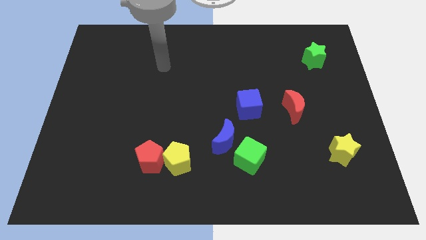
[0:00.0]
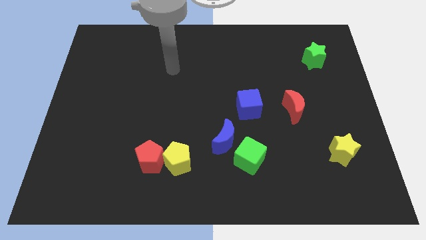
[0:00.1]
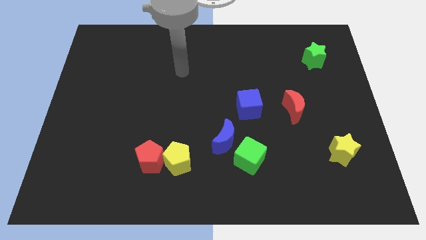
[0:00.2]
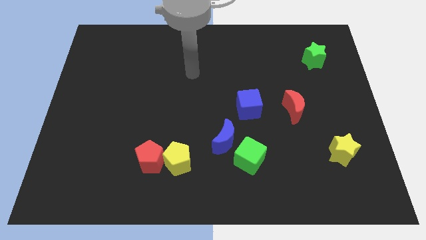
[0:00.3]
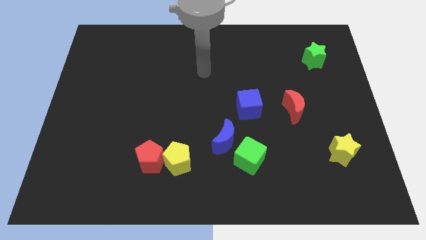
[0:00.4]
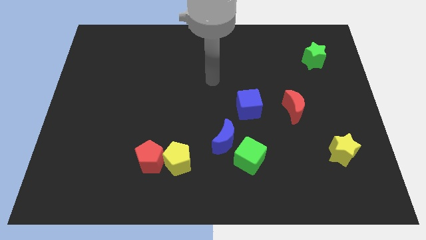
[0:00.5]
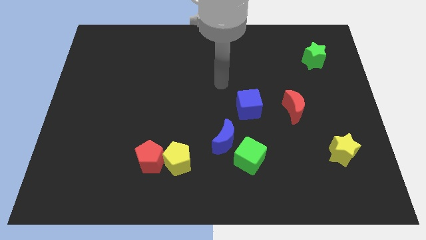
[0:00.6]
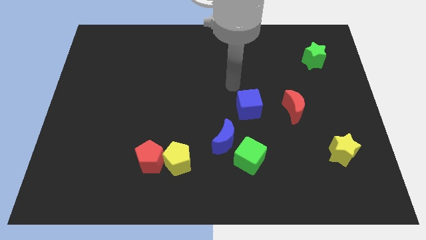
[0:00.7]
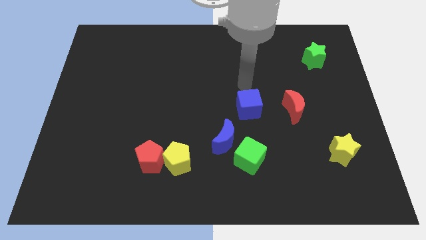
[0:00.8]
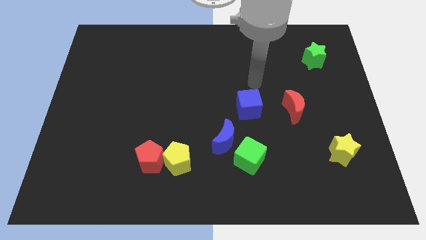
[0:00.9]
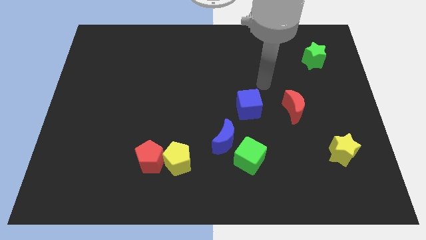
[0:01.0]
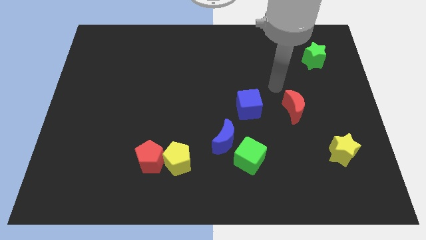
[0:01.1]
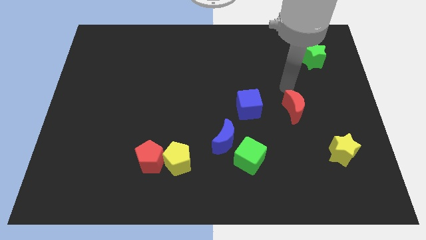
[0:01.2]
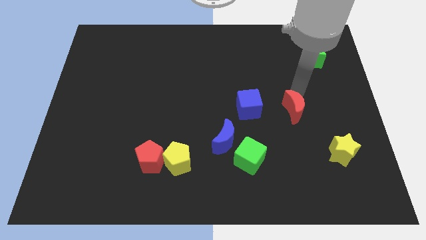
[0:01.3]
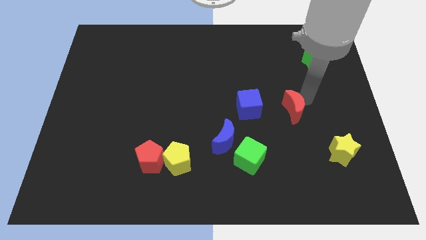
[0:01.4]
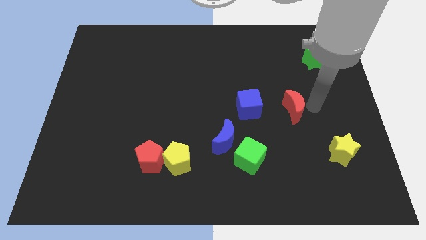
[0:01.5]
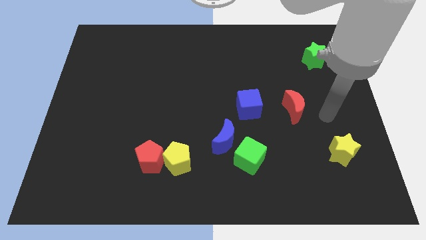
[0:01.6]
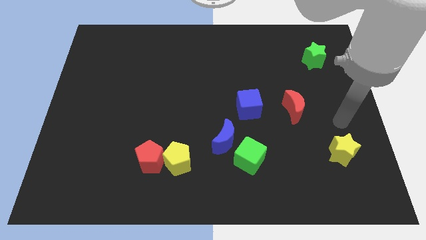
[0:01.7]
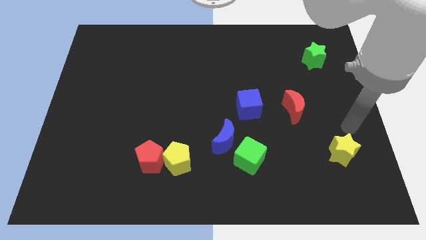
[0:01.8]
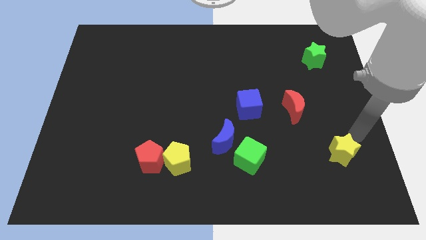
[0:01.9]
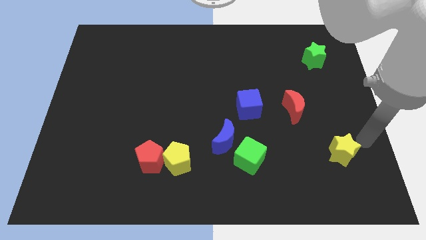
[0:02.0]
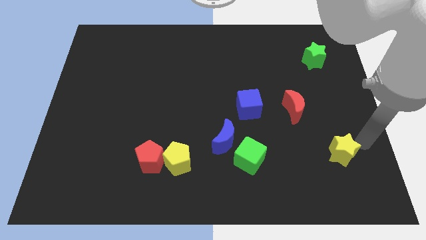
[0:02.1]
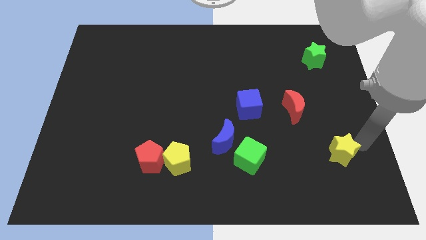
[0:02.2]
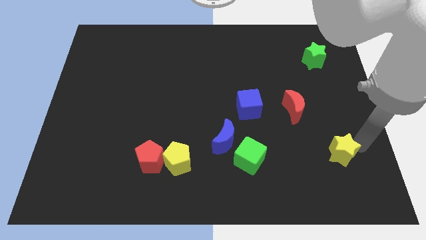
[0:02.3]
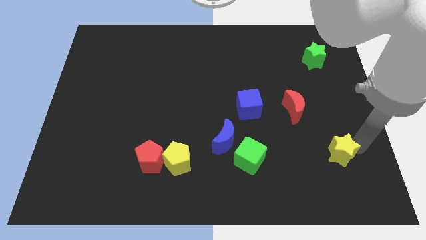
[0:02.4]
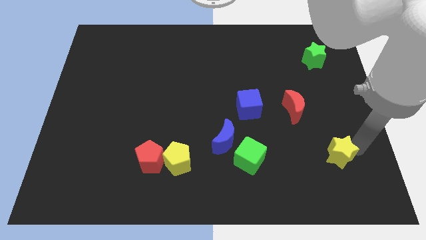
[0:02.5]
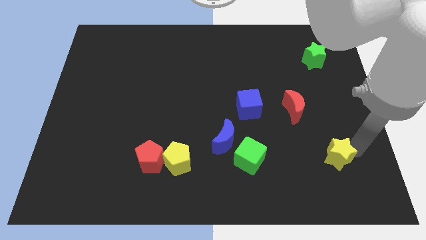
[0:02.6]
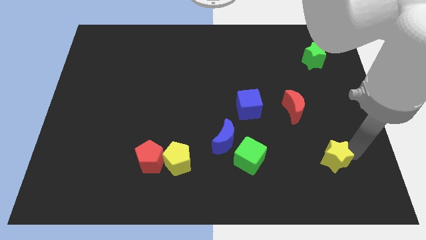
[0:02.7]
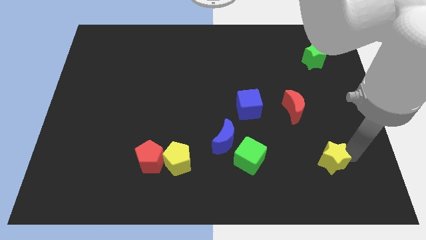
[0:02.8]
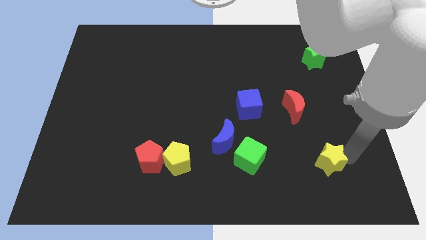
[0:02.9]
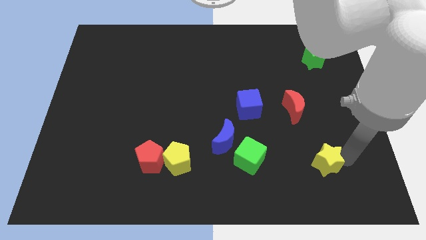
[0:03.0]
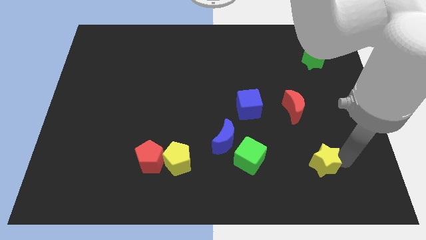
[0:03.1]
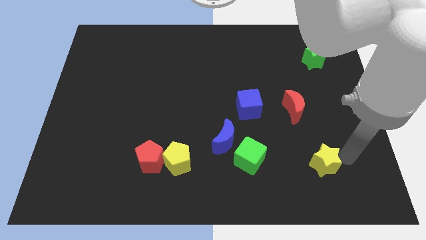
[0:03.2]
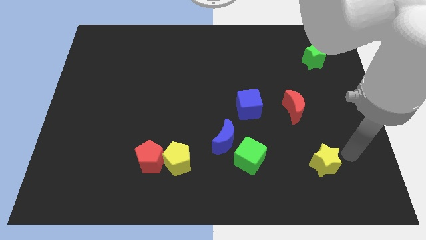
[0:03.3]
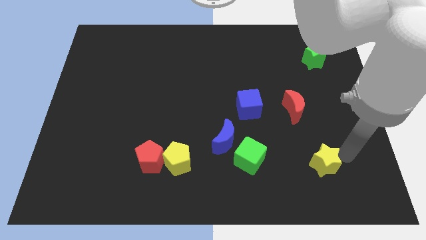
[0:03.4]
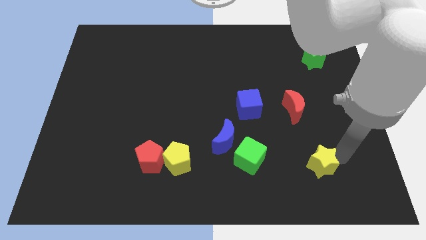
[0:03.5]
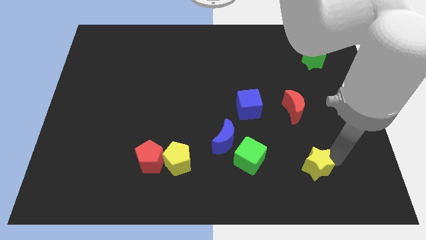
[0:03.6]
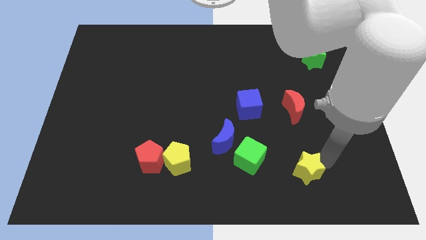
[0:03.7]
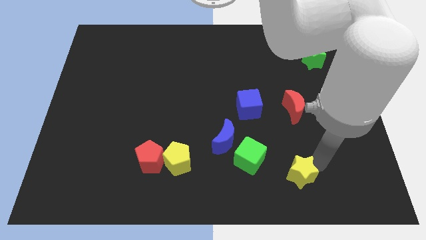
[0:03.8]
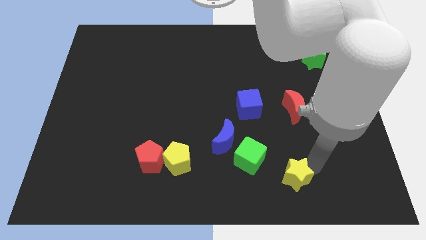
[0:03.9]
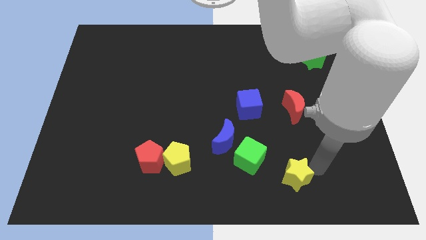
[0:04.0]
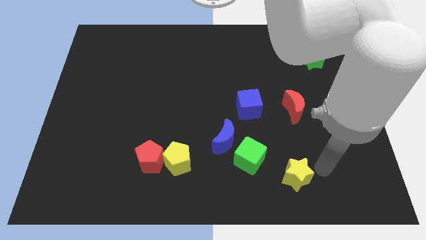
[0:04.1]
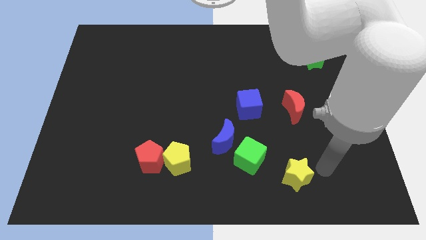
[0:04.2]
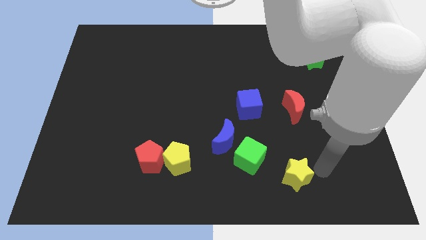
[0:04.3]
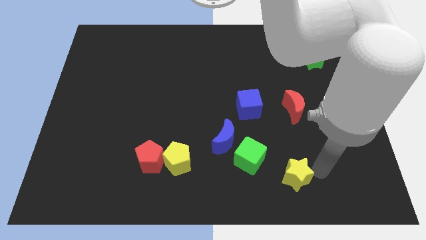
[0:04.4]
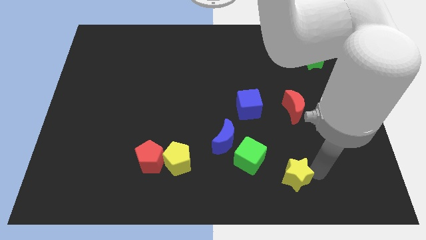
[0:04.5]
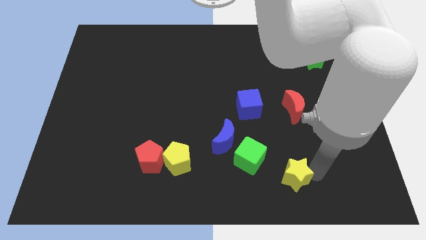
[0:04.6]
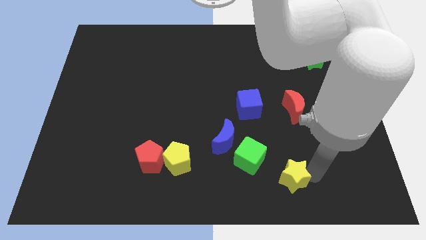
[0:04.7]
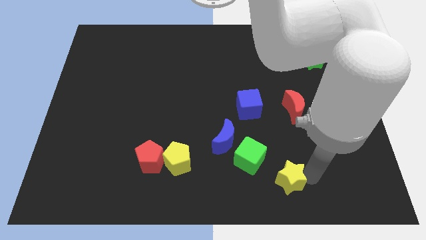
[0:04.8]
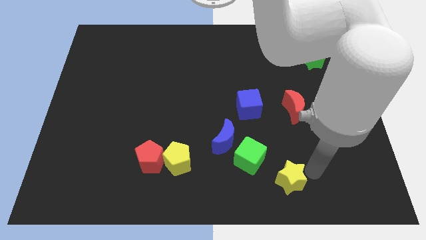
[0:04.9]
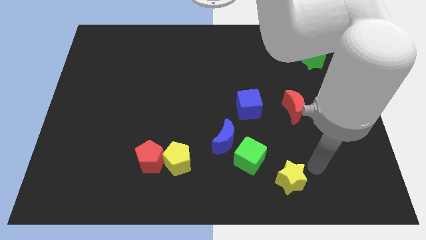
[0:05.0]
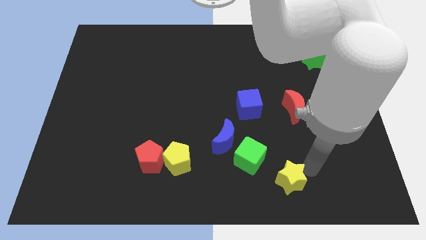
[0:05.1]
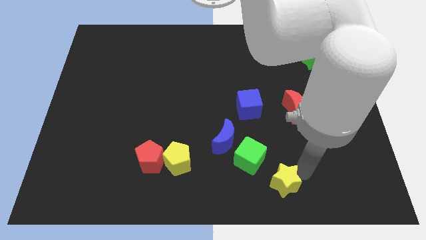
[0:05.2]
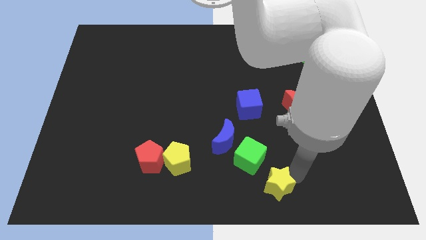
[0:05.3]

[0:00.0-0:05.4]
move the yellow star to the bottom

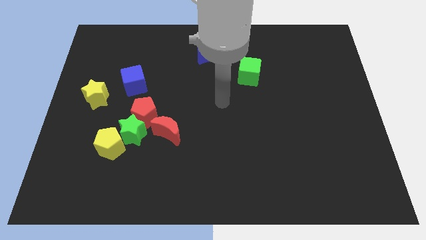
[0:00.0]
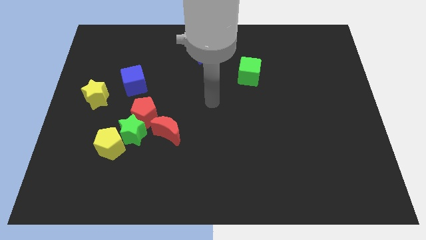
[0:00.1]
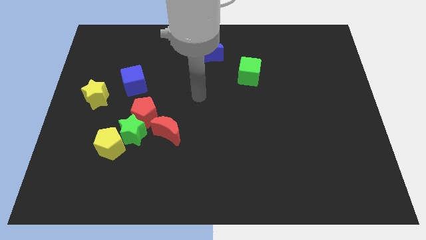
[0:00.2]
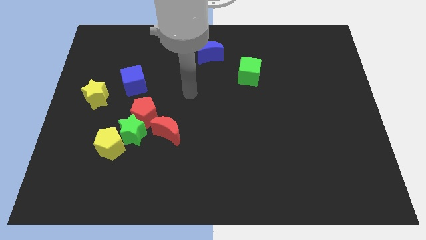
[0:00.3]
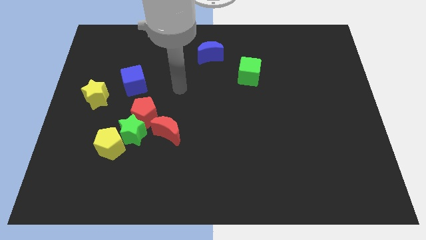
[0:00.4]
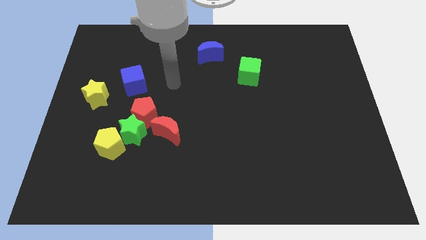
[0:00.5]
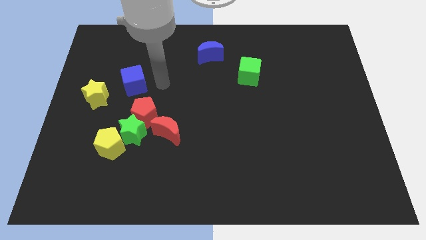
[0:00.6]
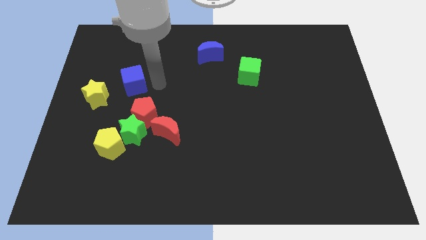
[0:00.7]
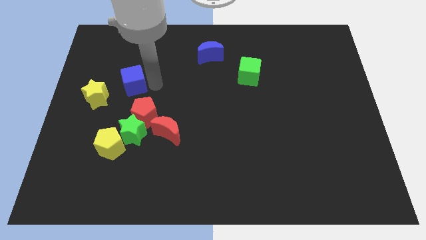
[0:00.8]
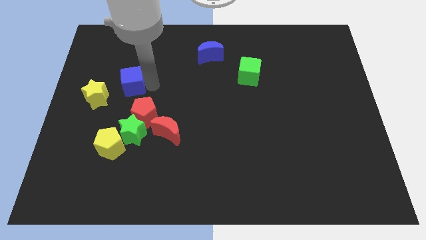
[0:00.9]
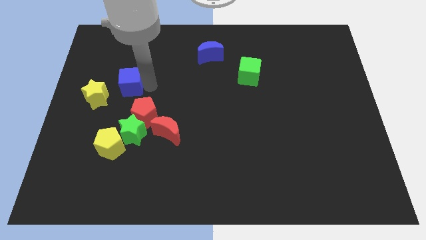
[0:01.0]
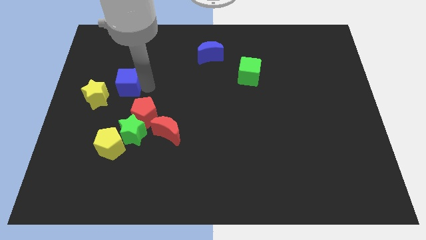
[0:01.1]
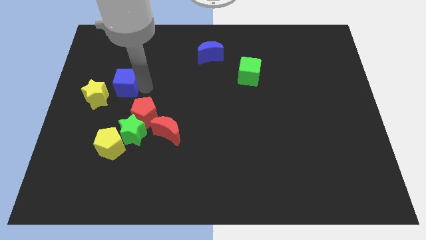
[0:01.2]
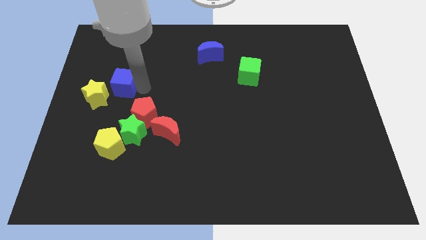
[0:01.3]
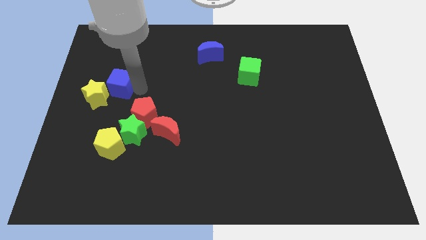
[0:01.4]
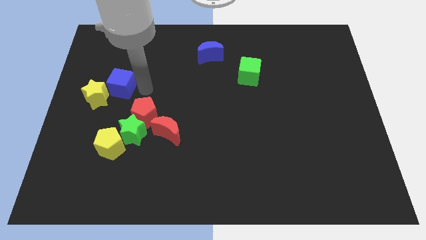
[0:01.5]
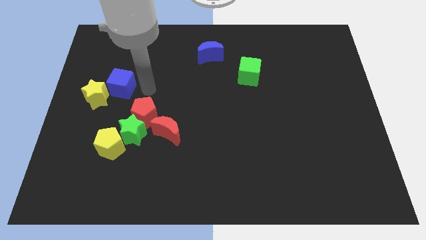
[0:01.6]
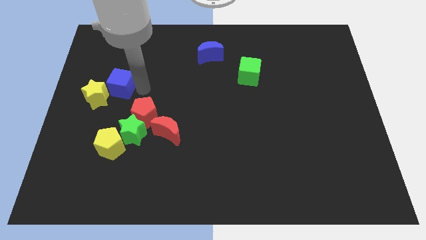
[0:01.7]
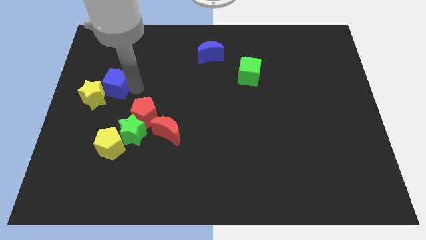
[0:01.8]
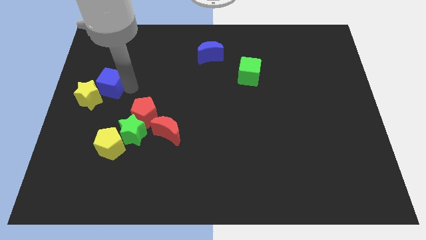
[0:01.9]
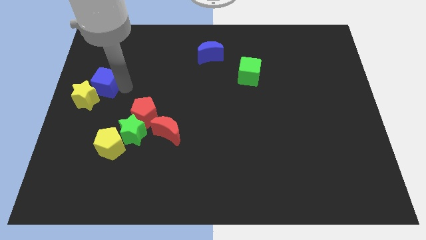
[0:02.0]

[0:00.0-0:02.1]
push the blue cube to the left side

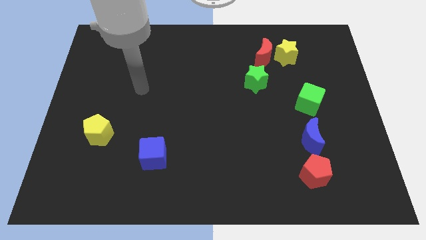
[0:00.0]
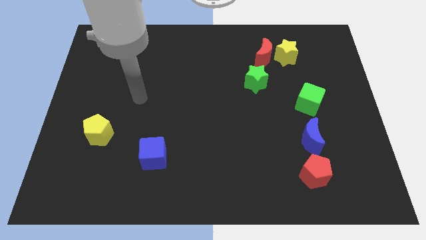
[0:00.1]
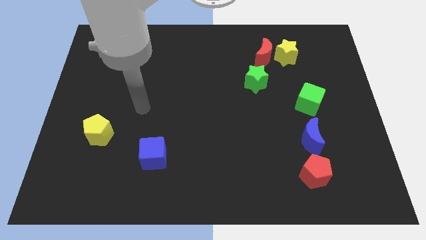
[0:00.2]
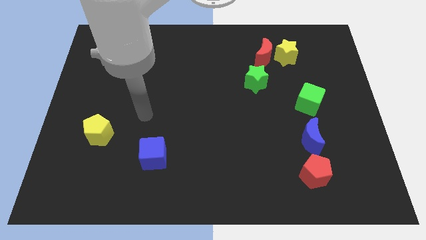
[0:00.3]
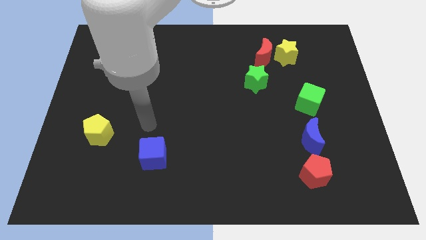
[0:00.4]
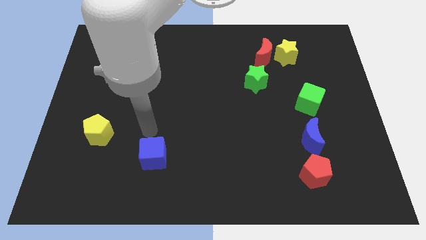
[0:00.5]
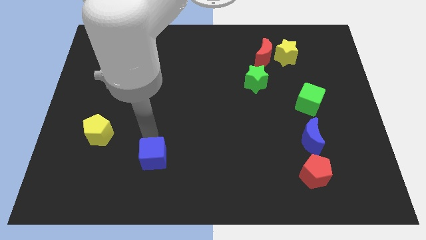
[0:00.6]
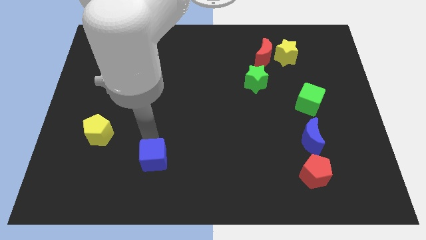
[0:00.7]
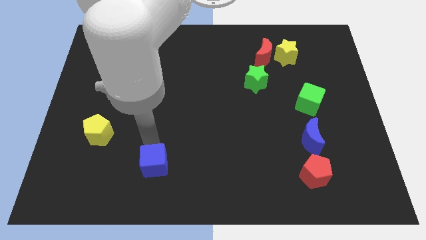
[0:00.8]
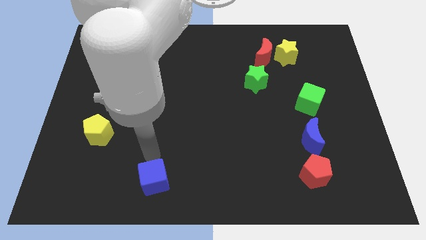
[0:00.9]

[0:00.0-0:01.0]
slide the blue cube to the bottom side
